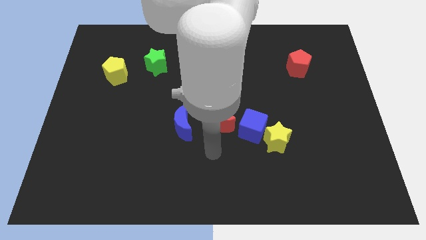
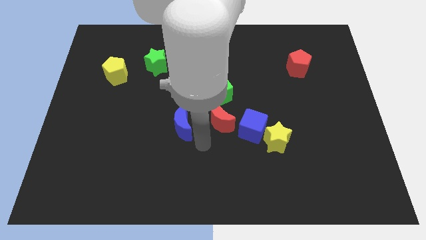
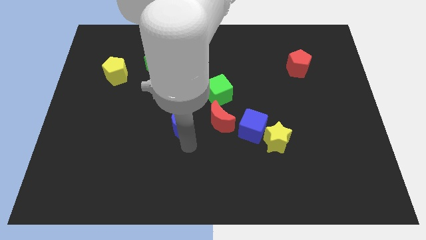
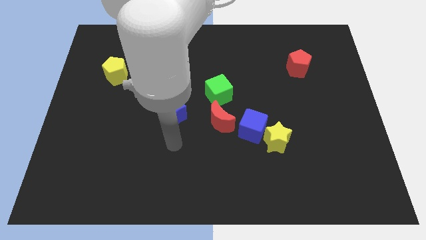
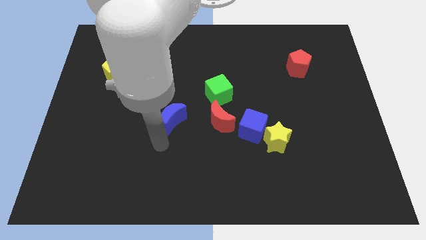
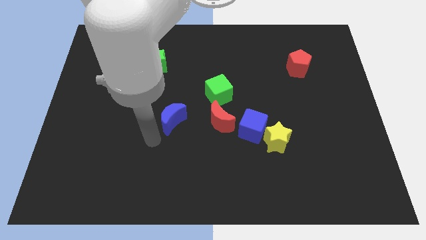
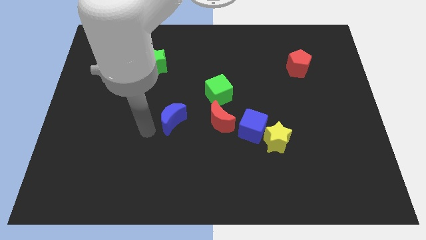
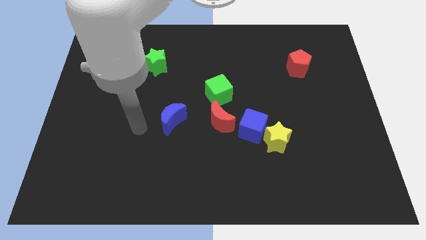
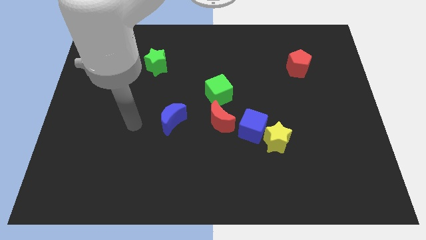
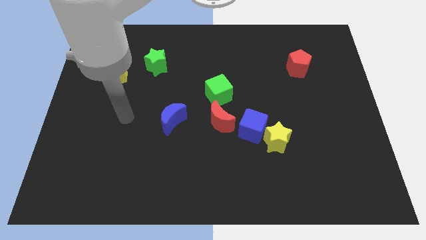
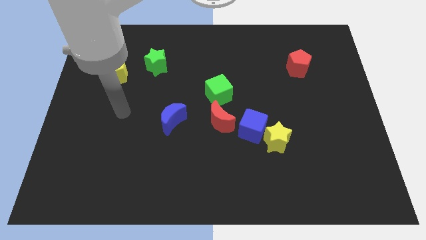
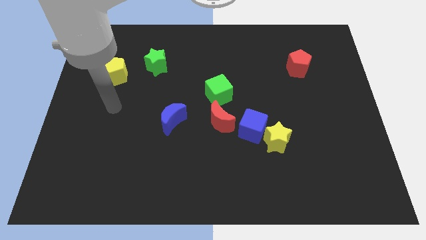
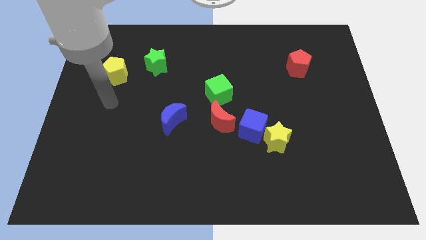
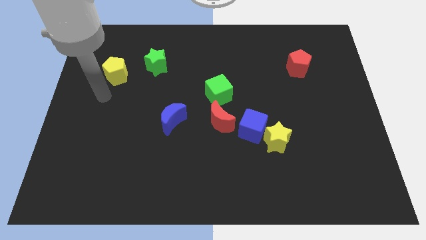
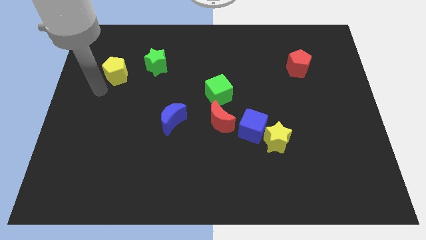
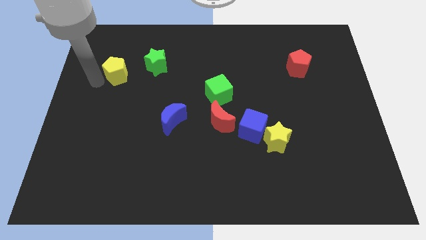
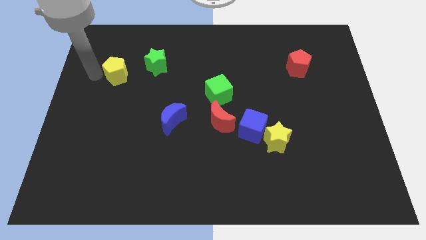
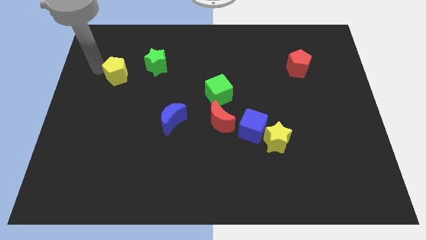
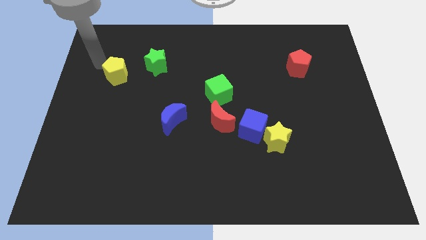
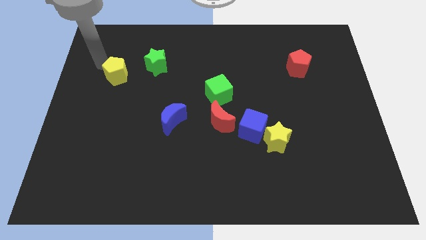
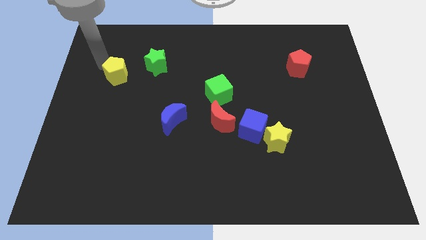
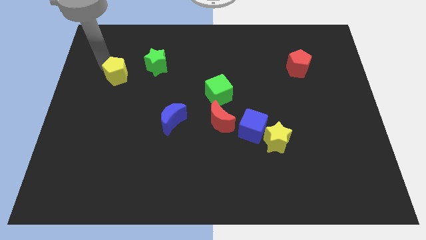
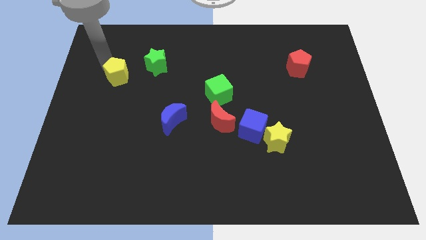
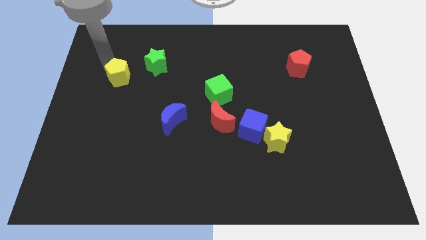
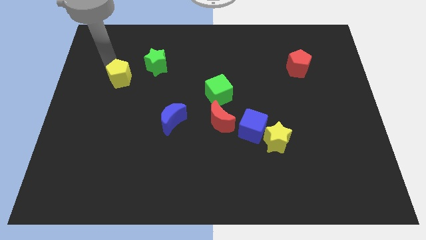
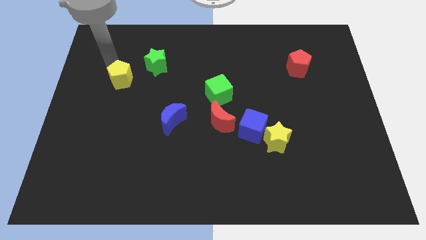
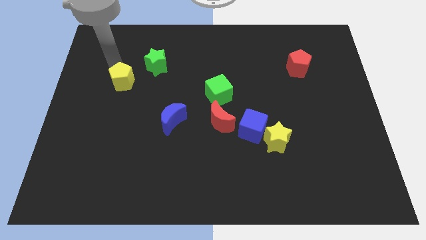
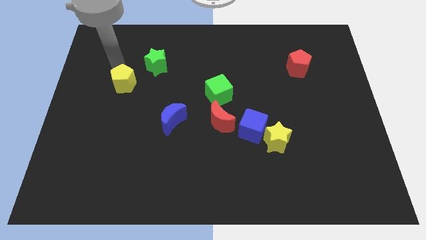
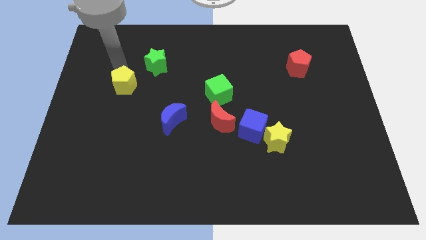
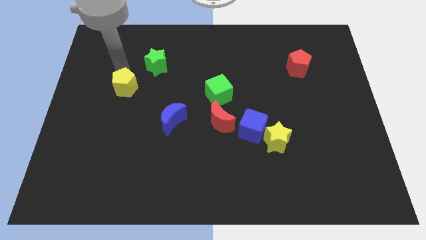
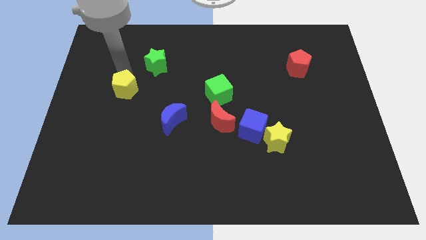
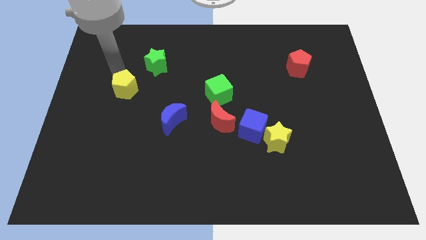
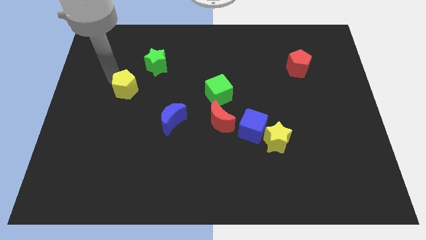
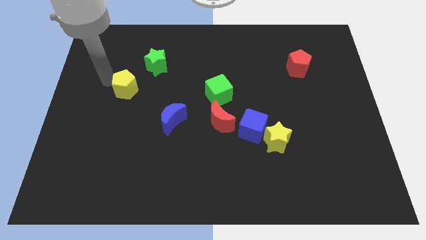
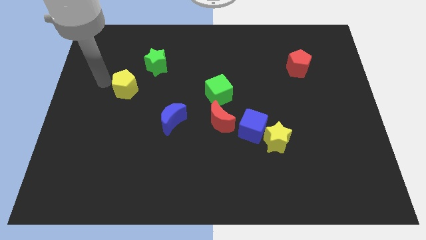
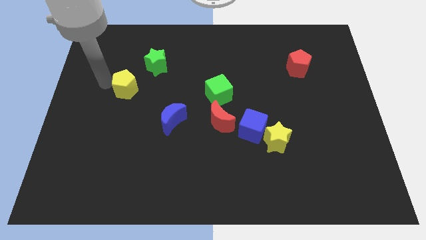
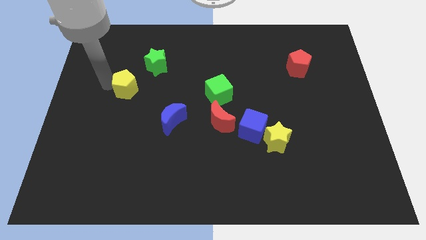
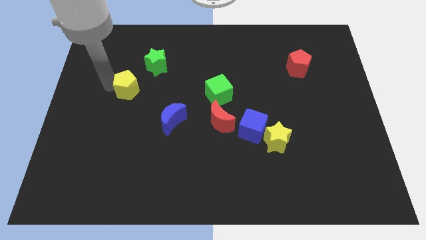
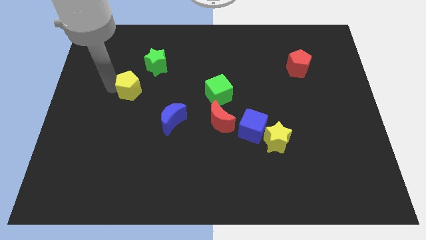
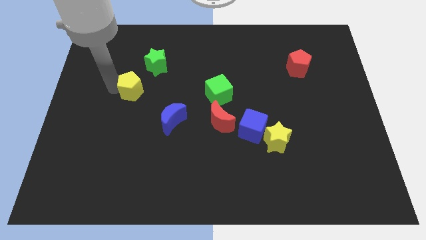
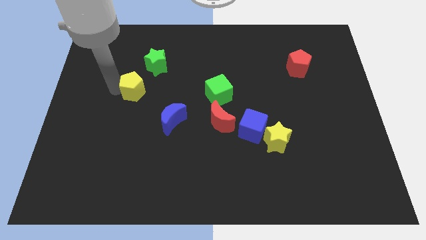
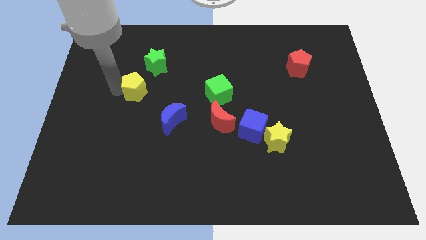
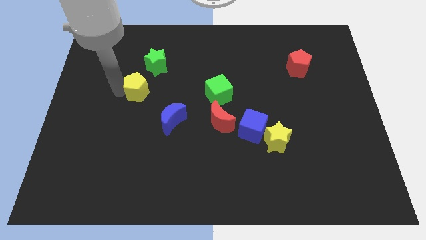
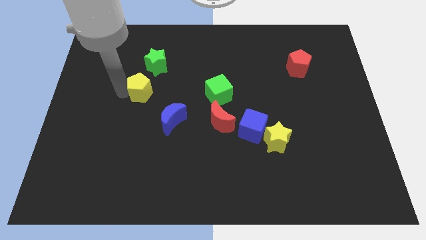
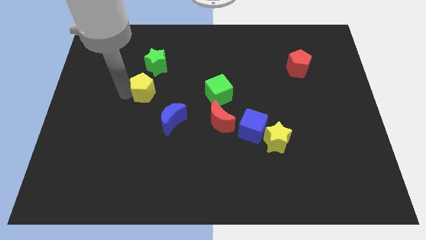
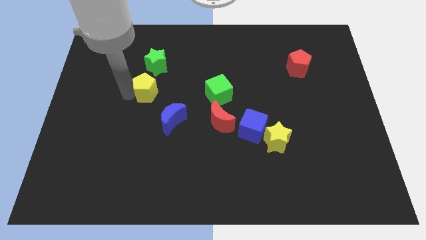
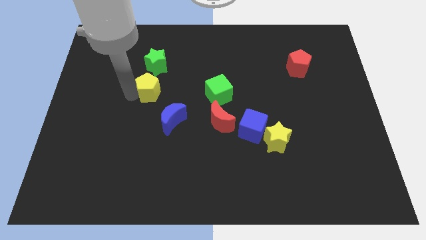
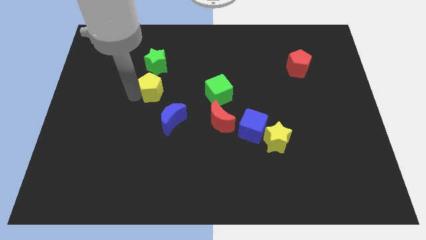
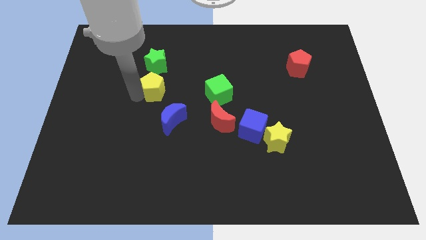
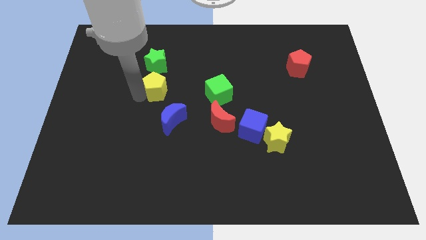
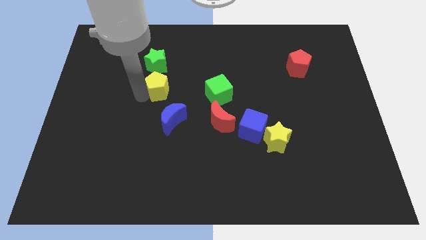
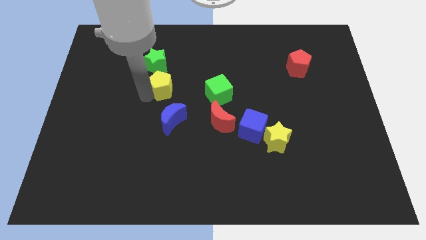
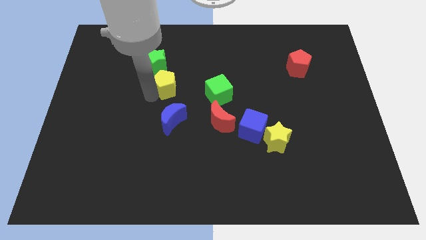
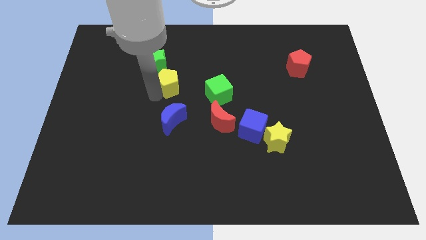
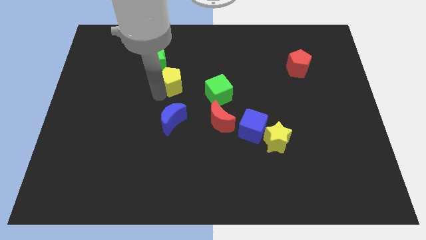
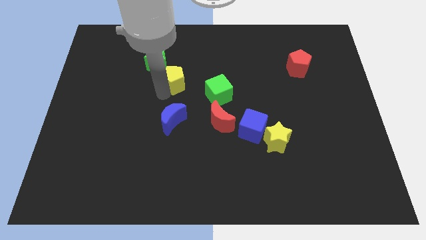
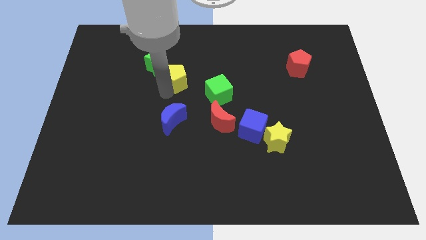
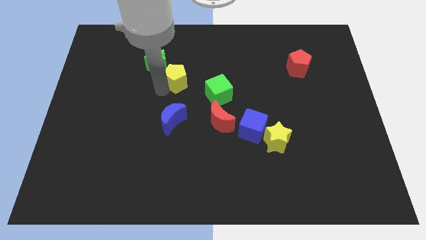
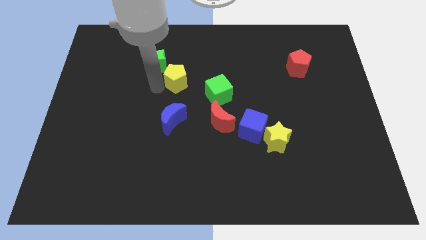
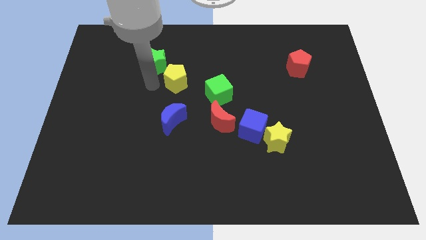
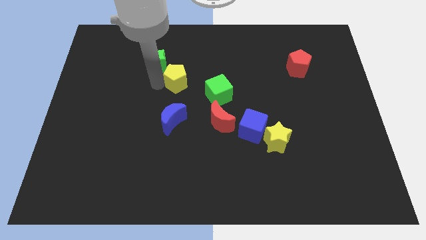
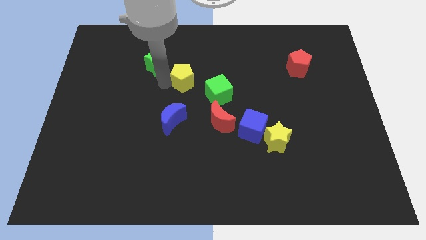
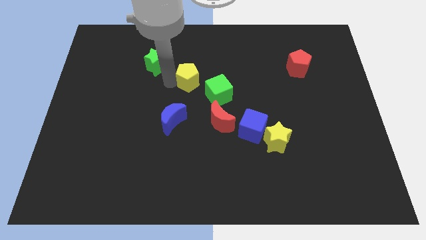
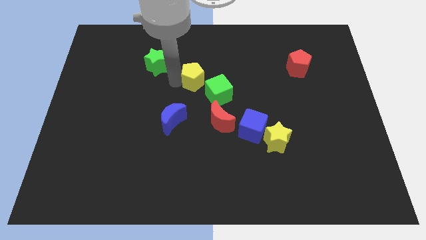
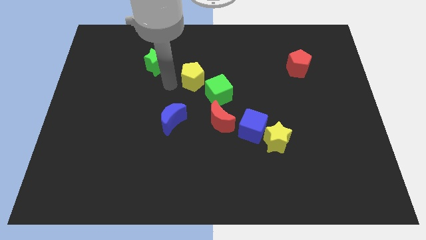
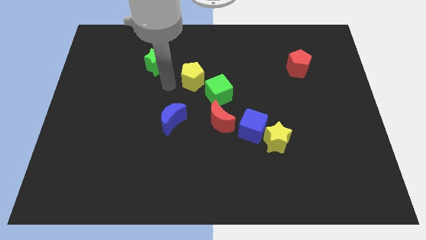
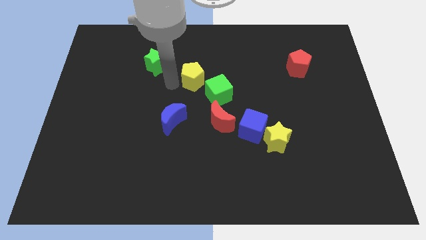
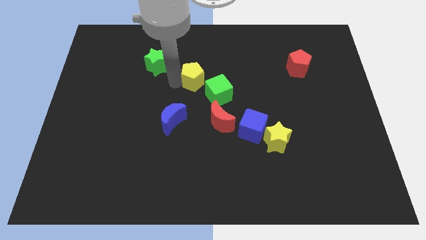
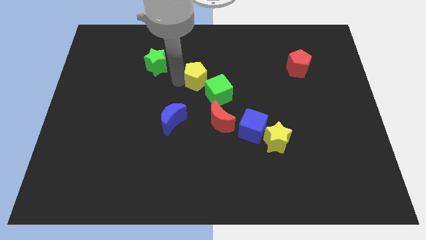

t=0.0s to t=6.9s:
push the yellow pentagon right

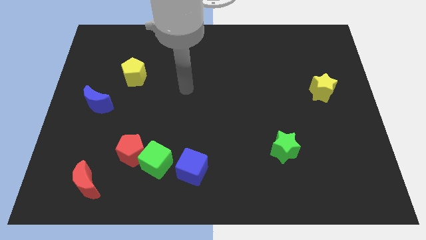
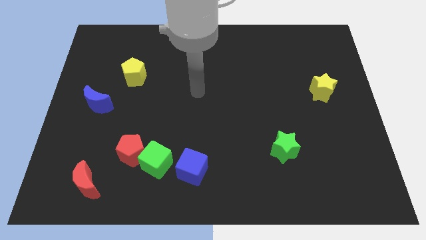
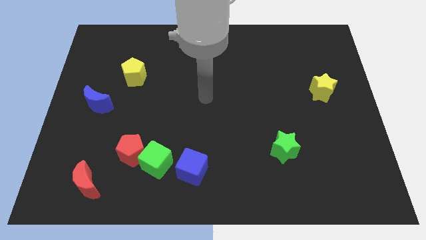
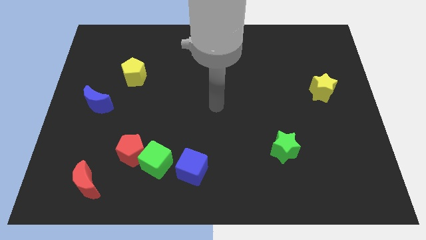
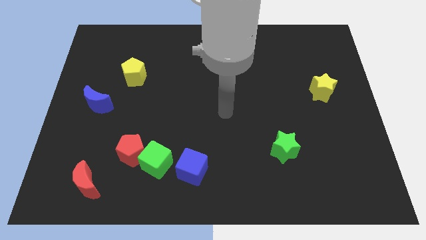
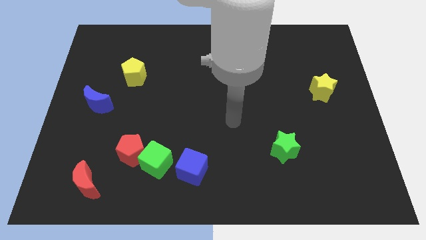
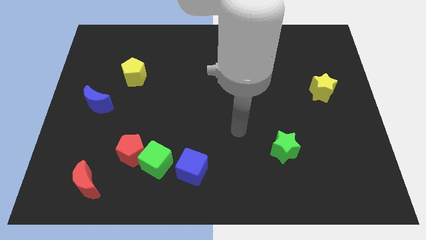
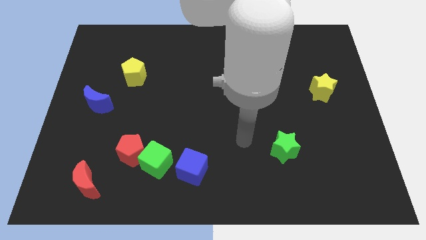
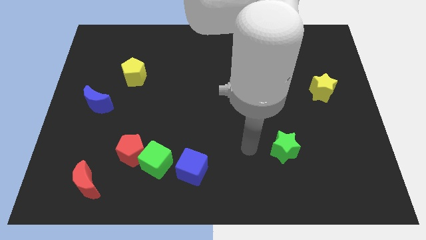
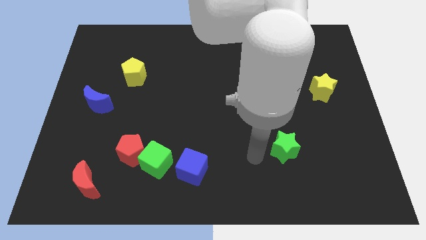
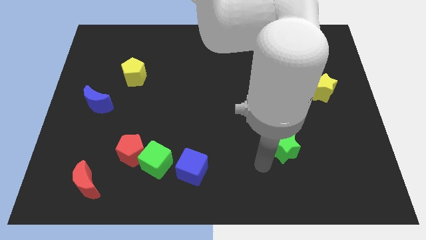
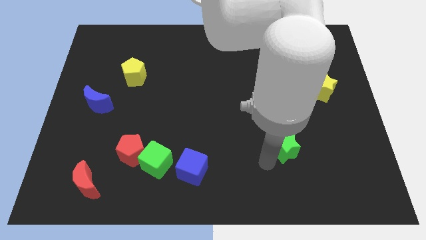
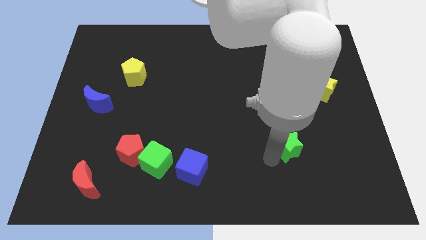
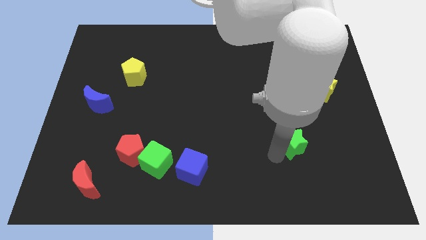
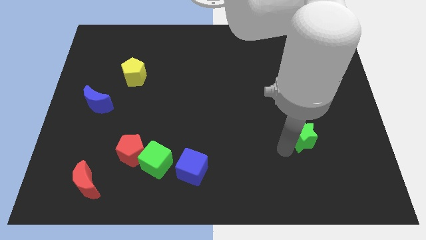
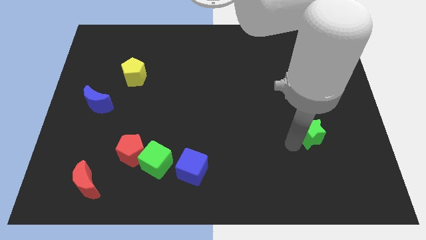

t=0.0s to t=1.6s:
move the green star upwards and right diagonally a bit
